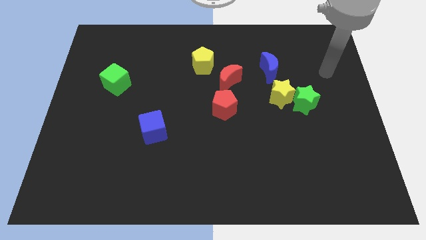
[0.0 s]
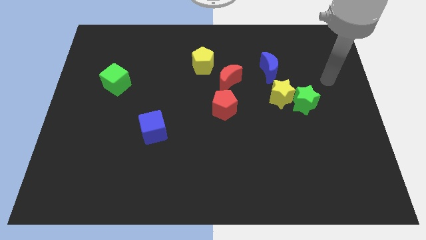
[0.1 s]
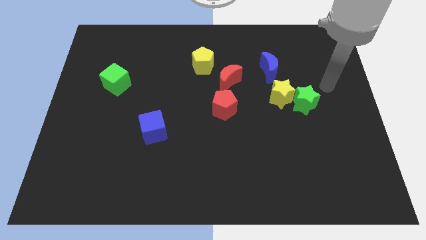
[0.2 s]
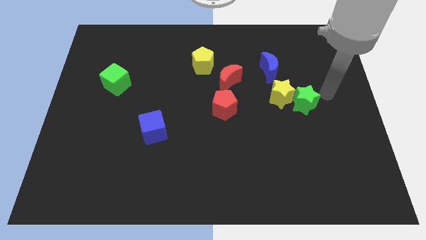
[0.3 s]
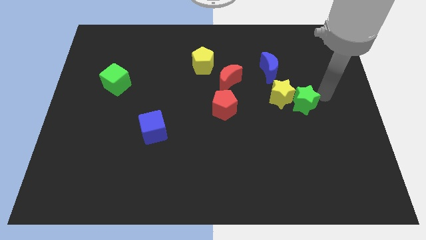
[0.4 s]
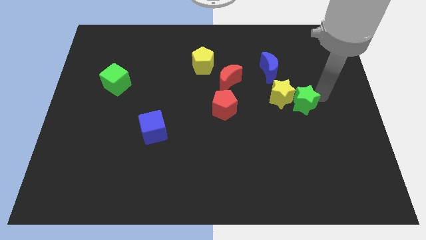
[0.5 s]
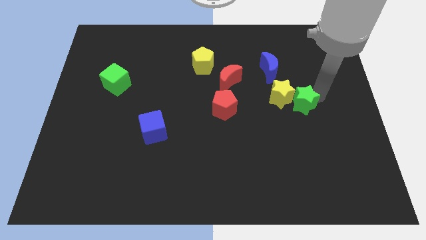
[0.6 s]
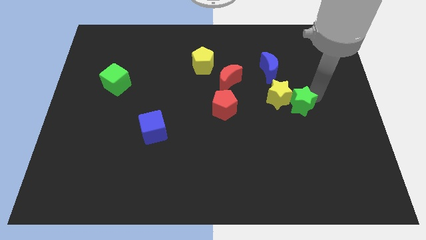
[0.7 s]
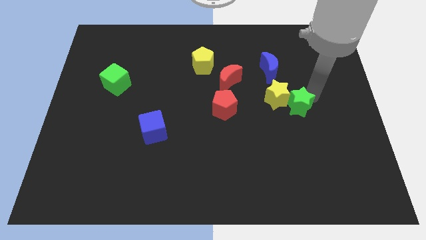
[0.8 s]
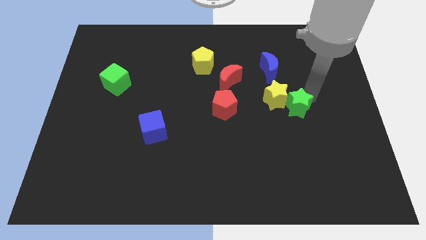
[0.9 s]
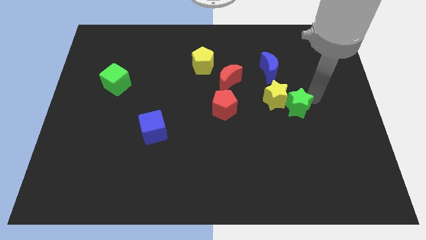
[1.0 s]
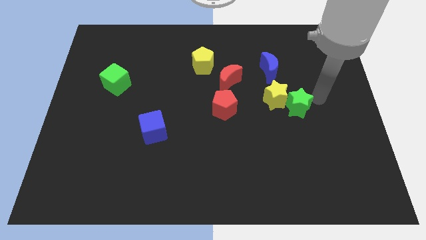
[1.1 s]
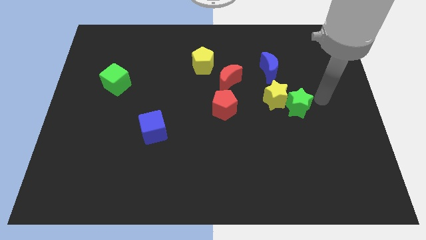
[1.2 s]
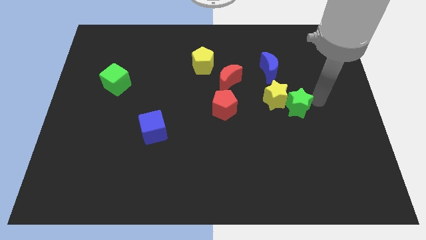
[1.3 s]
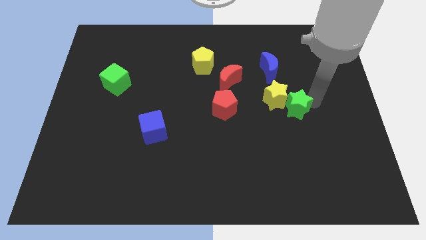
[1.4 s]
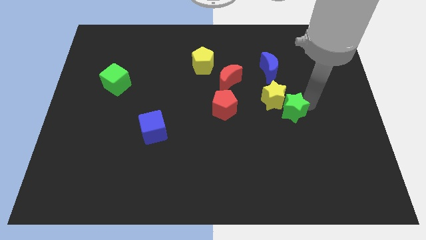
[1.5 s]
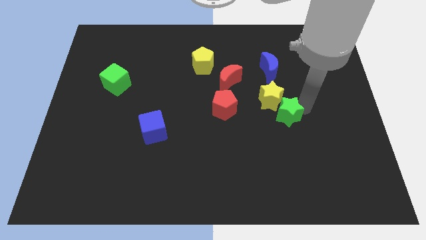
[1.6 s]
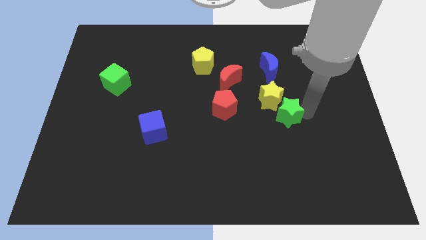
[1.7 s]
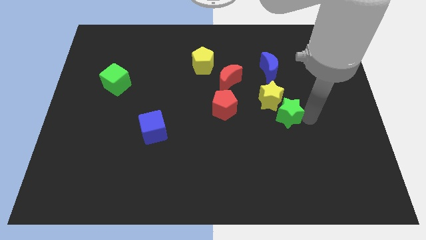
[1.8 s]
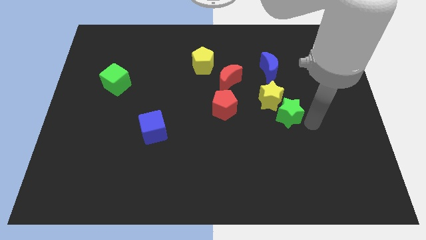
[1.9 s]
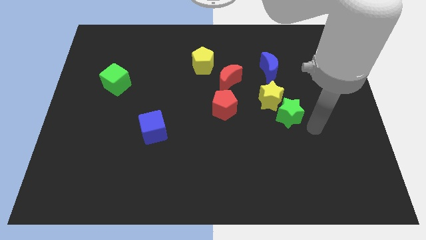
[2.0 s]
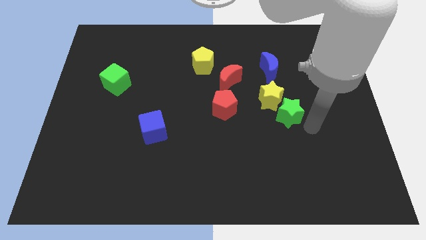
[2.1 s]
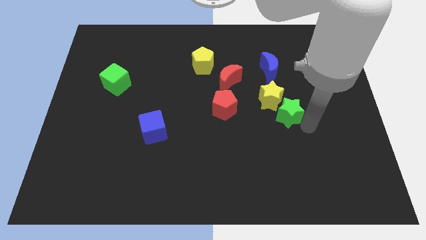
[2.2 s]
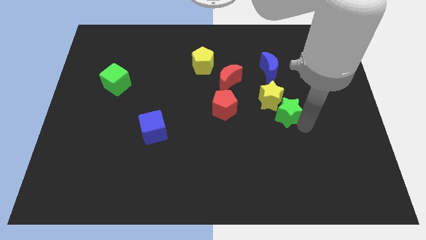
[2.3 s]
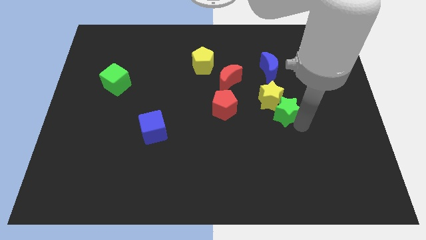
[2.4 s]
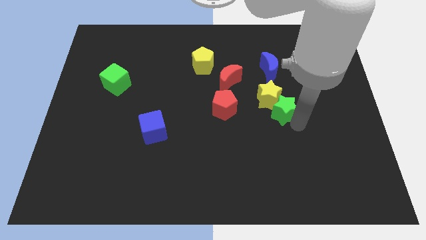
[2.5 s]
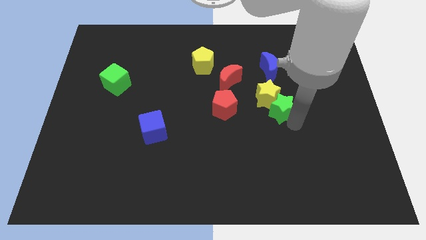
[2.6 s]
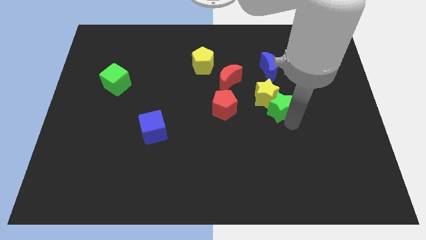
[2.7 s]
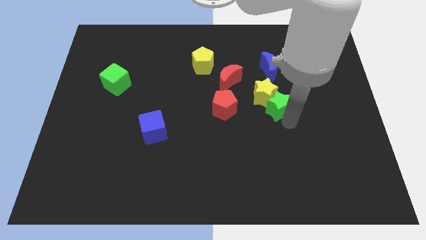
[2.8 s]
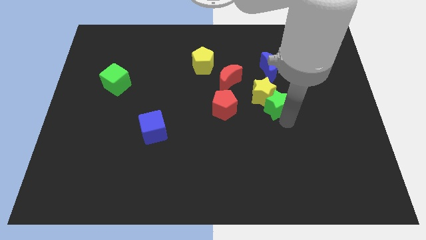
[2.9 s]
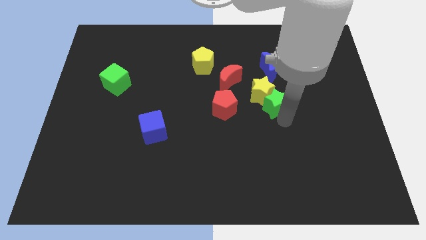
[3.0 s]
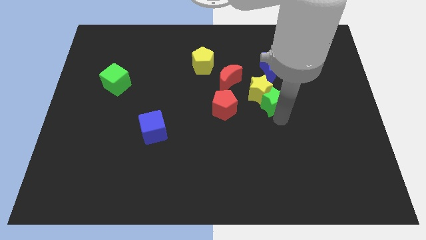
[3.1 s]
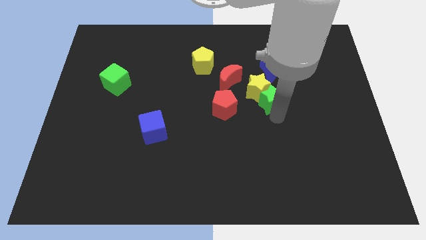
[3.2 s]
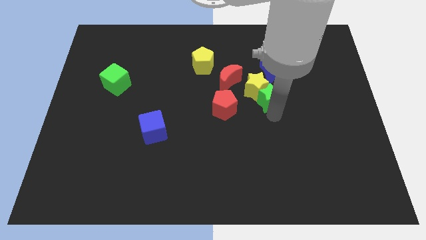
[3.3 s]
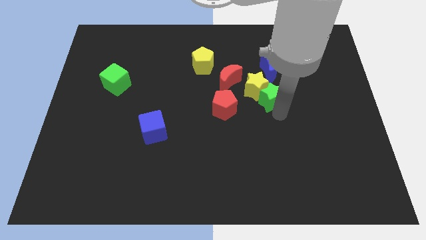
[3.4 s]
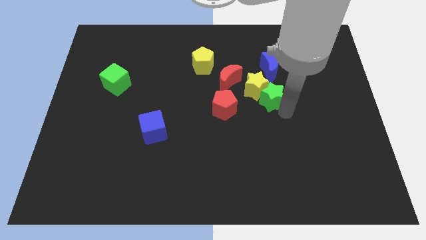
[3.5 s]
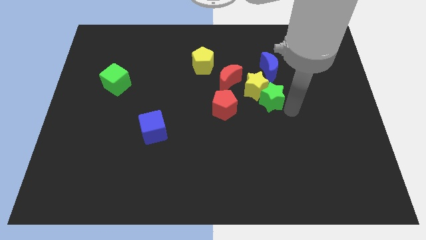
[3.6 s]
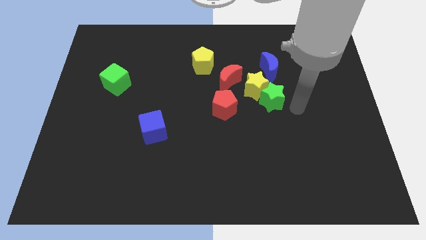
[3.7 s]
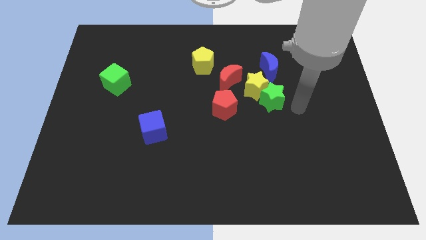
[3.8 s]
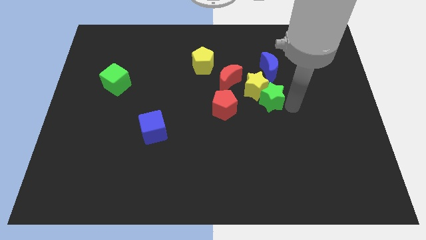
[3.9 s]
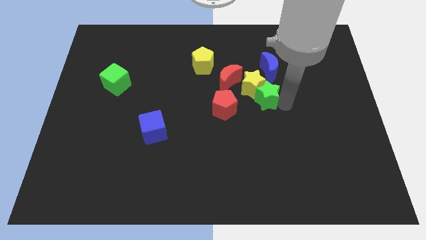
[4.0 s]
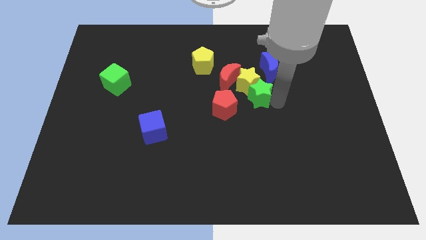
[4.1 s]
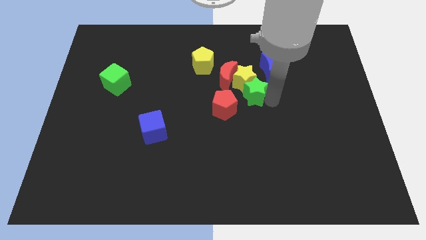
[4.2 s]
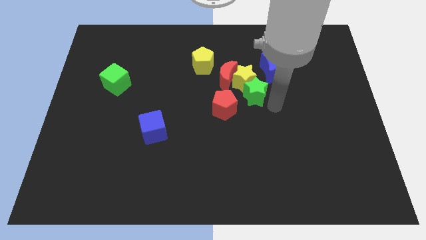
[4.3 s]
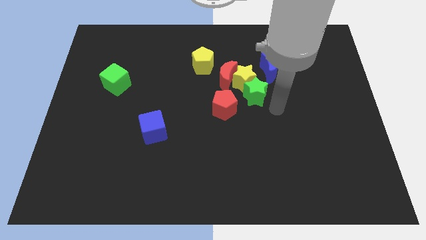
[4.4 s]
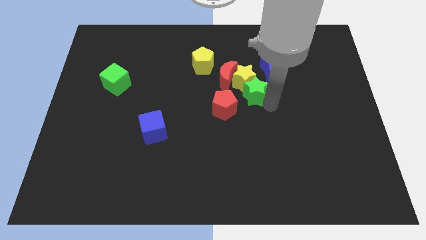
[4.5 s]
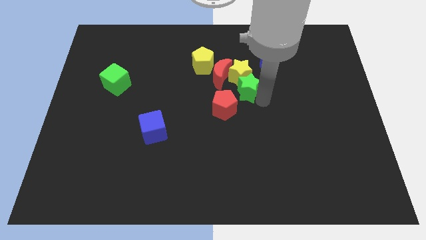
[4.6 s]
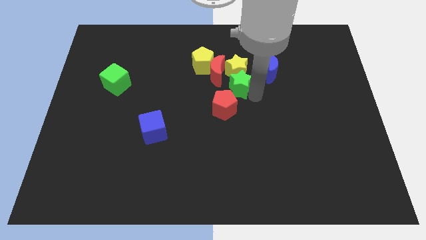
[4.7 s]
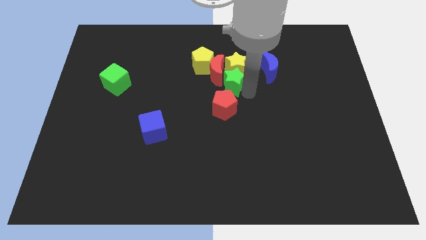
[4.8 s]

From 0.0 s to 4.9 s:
slide the green star towards the red moon

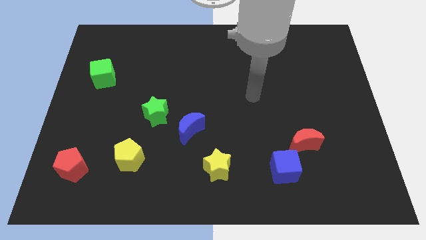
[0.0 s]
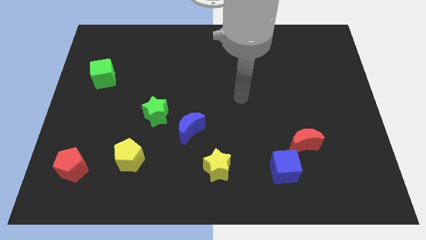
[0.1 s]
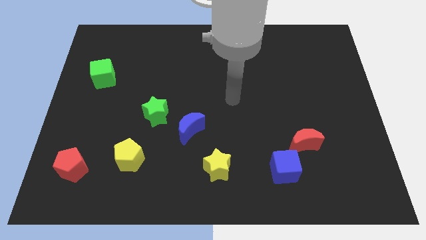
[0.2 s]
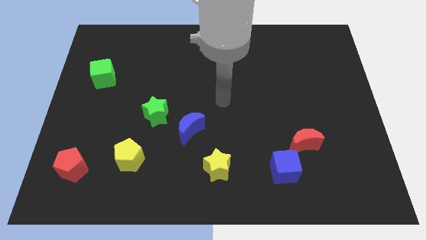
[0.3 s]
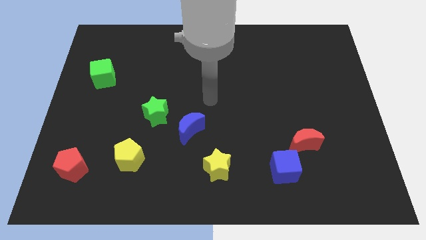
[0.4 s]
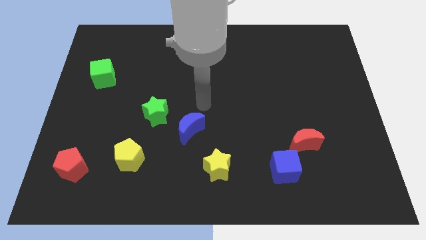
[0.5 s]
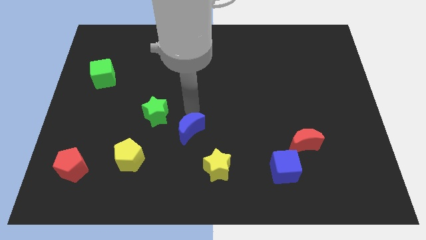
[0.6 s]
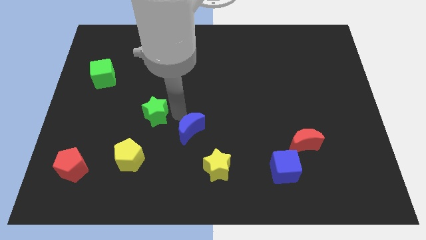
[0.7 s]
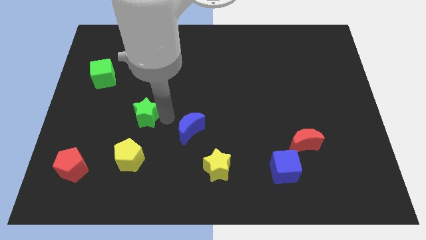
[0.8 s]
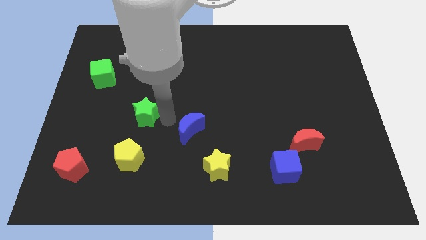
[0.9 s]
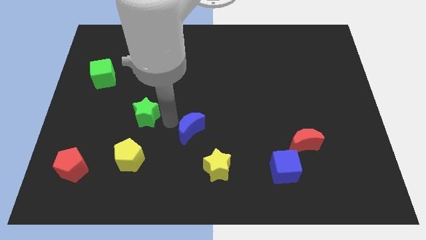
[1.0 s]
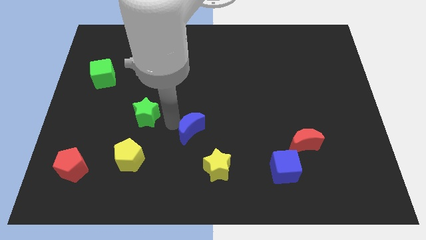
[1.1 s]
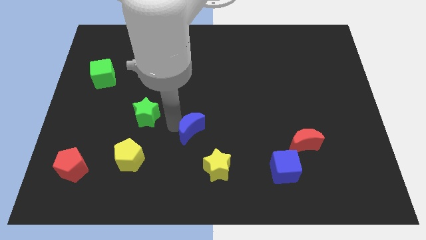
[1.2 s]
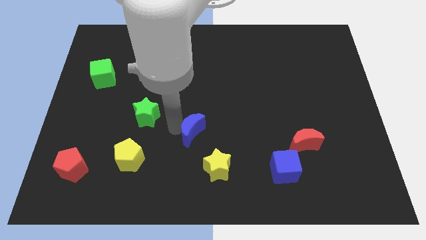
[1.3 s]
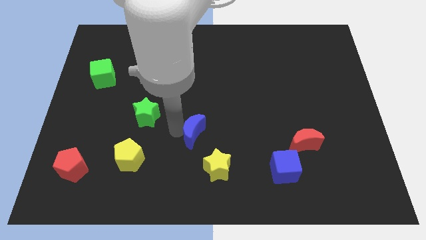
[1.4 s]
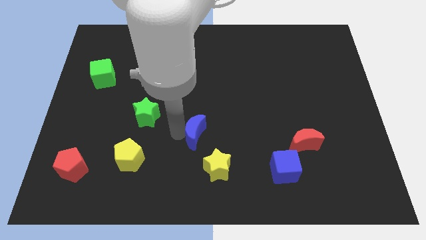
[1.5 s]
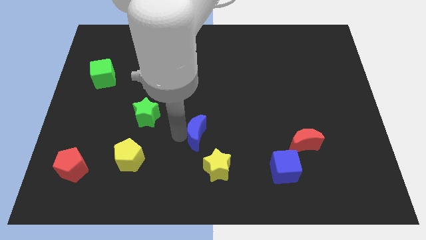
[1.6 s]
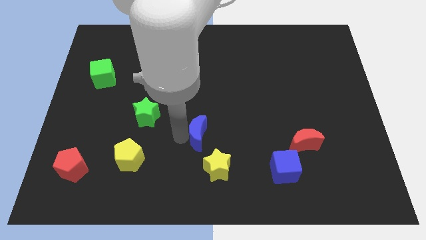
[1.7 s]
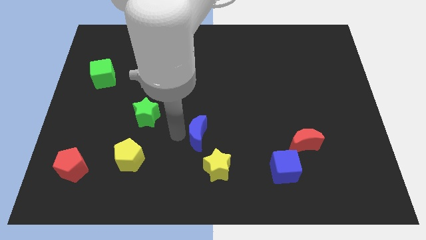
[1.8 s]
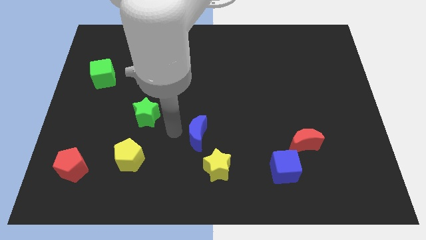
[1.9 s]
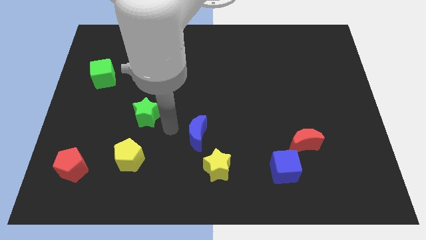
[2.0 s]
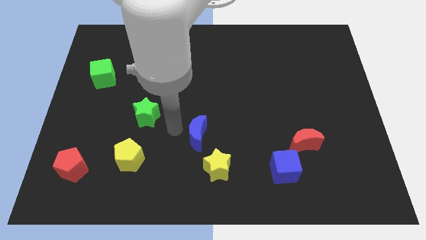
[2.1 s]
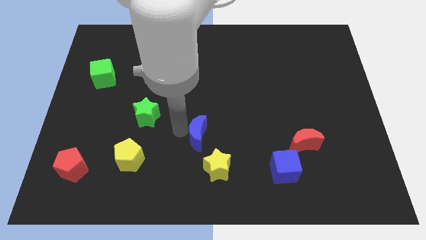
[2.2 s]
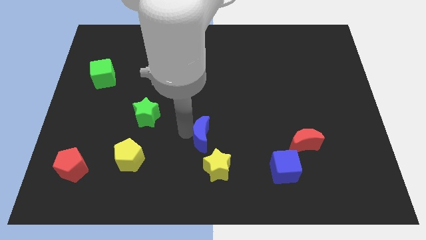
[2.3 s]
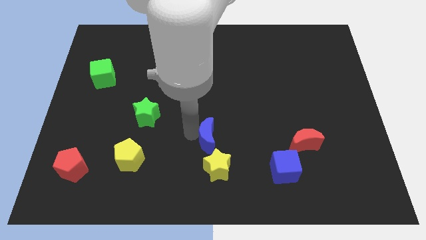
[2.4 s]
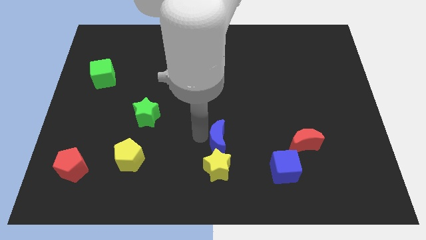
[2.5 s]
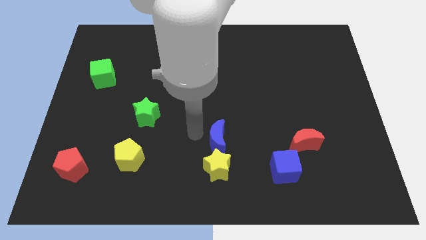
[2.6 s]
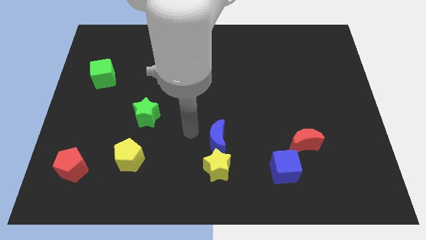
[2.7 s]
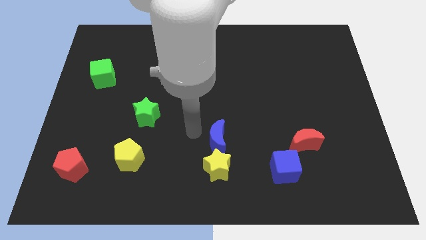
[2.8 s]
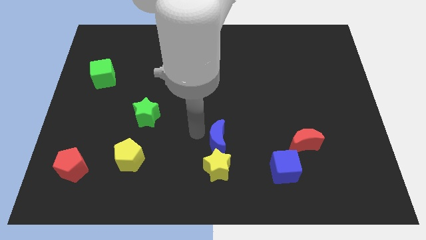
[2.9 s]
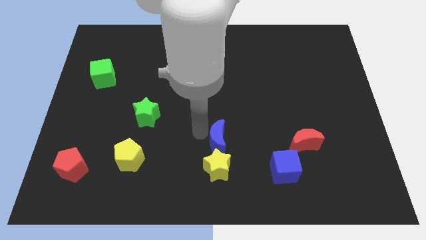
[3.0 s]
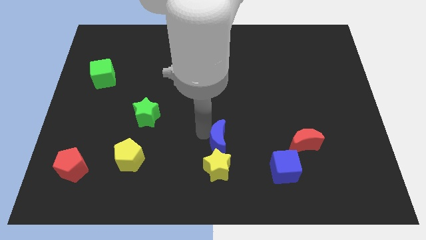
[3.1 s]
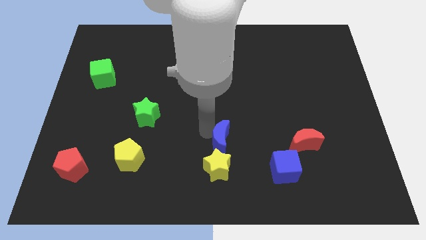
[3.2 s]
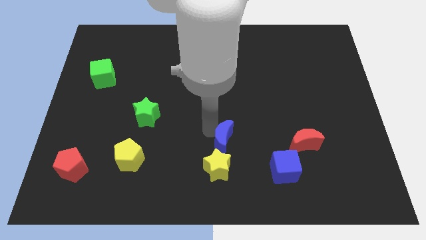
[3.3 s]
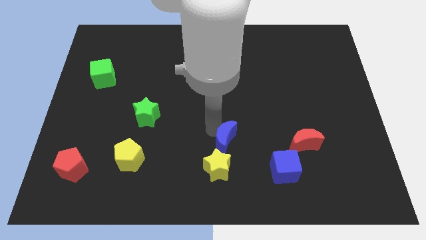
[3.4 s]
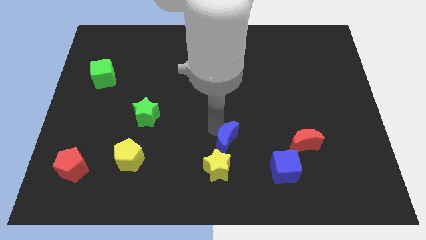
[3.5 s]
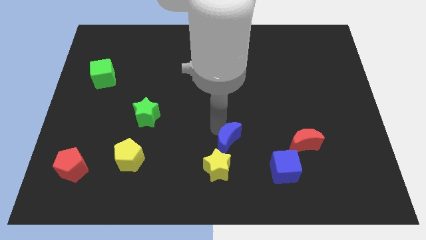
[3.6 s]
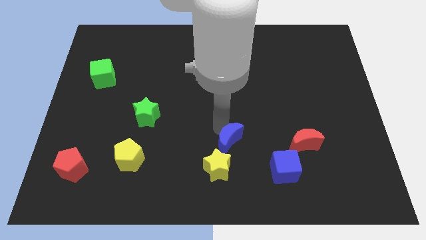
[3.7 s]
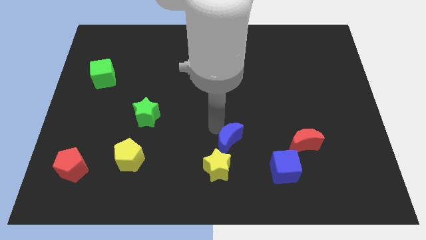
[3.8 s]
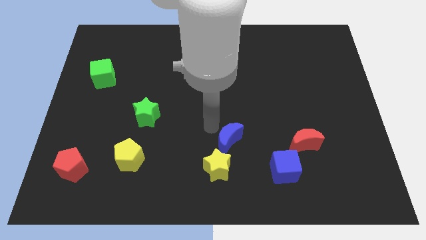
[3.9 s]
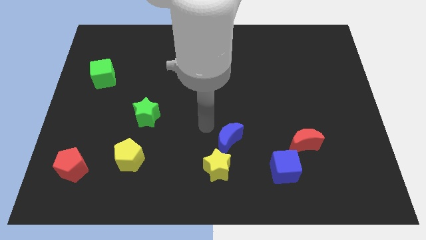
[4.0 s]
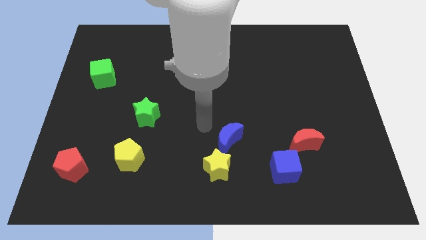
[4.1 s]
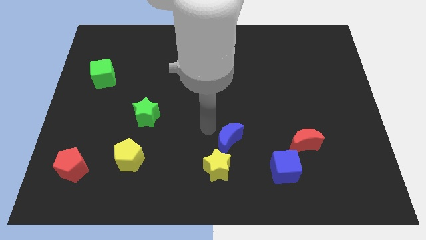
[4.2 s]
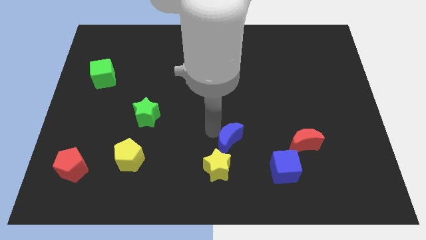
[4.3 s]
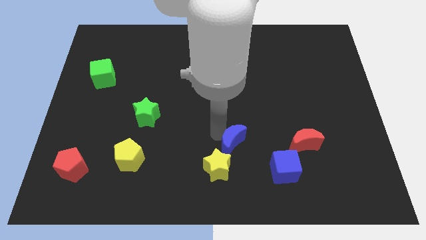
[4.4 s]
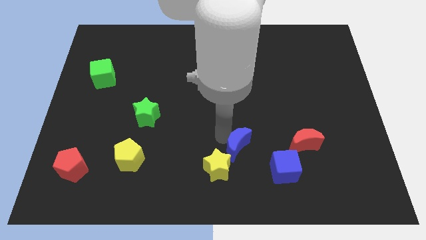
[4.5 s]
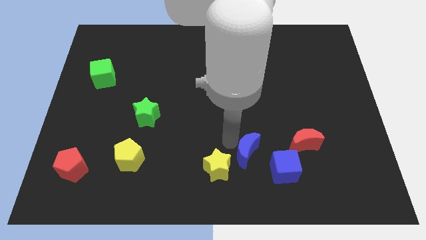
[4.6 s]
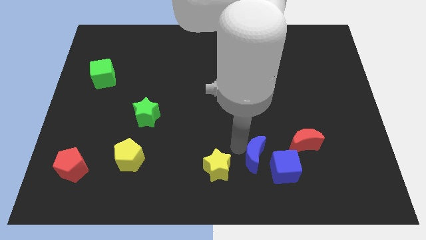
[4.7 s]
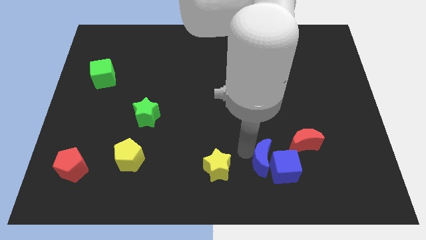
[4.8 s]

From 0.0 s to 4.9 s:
move the blue moon towards the blue cube
